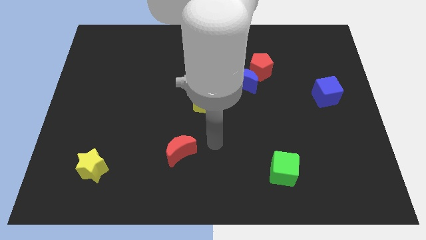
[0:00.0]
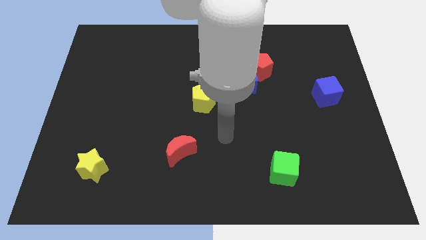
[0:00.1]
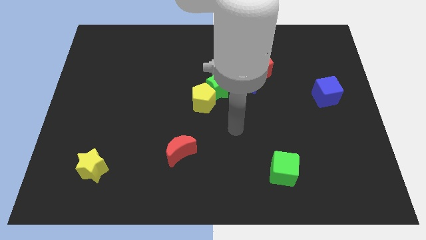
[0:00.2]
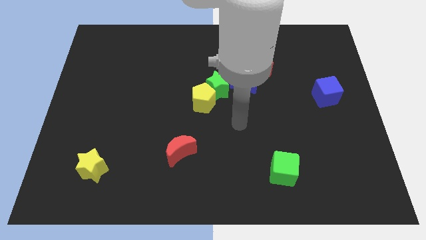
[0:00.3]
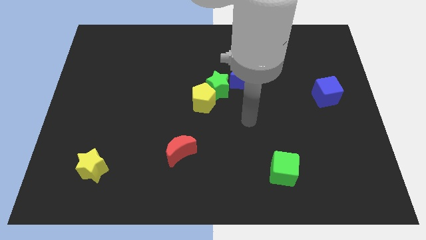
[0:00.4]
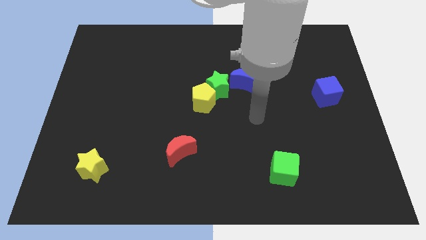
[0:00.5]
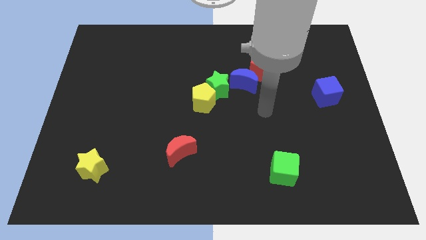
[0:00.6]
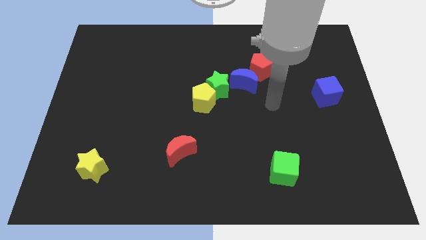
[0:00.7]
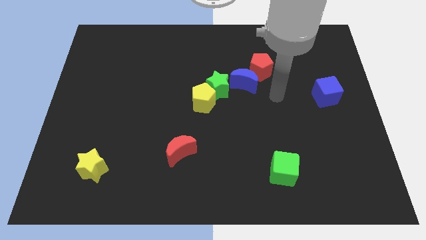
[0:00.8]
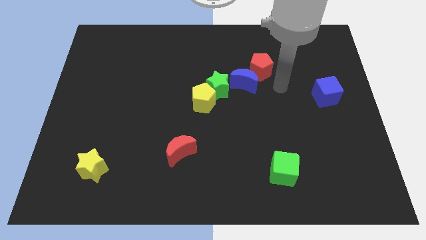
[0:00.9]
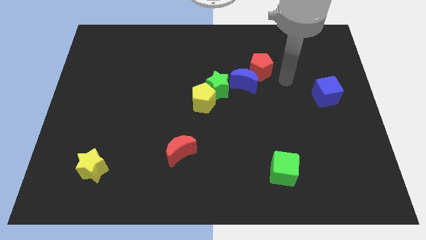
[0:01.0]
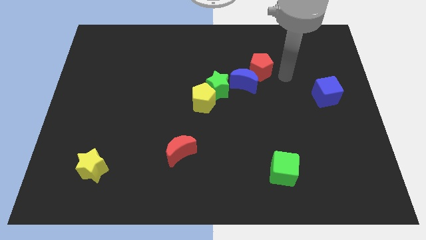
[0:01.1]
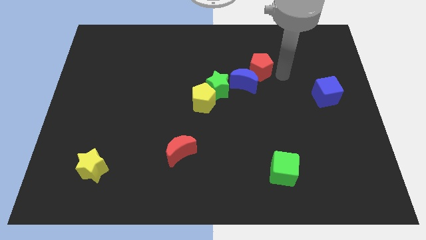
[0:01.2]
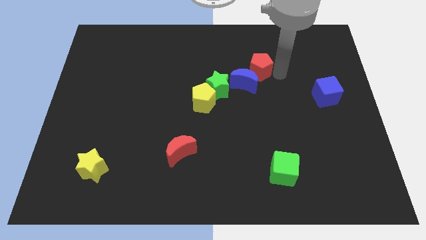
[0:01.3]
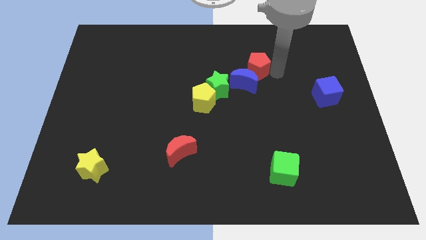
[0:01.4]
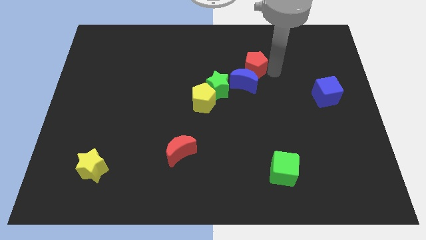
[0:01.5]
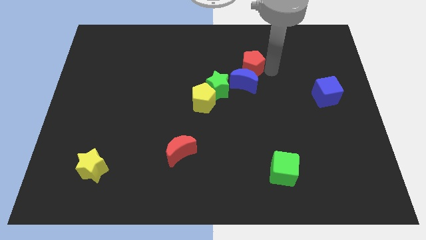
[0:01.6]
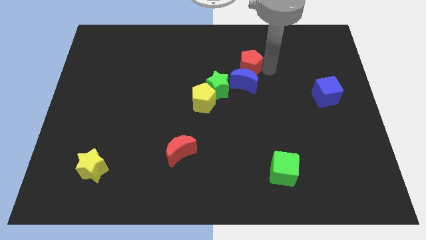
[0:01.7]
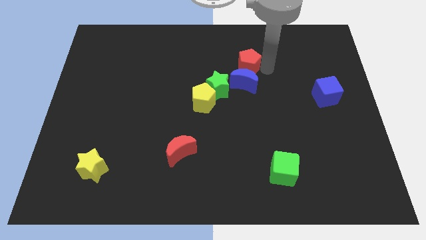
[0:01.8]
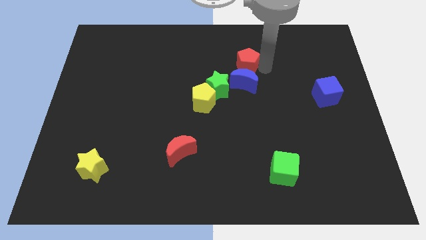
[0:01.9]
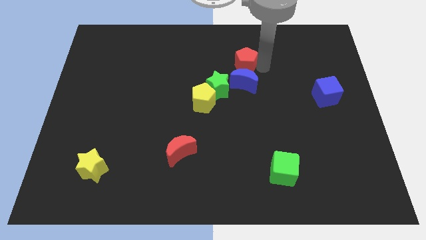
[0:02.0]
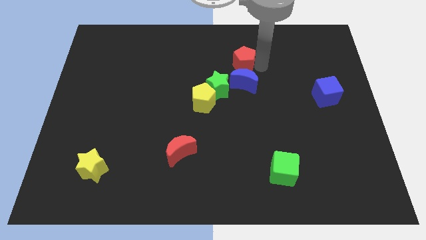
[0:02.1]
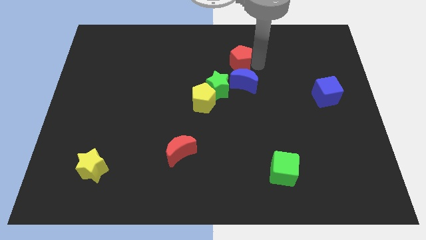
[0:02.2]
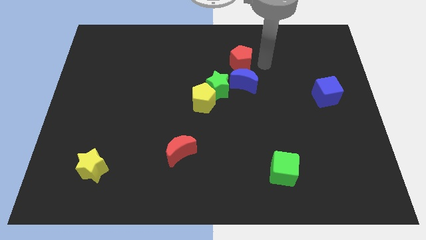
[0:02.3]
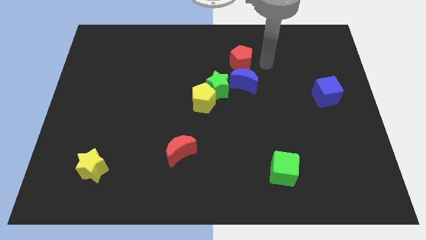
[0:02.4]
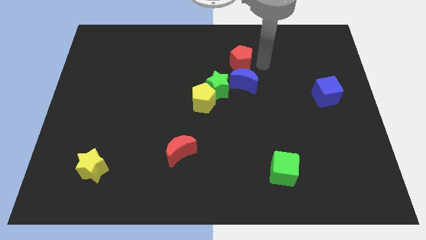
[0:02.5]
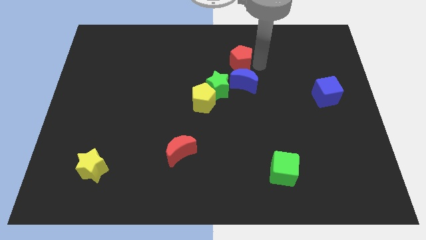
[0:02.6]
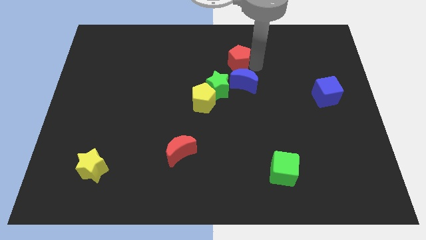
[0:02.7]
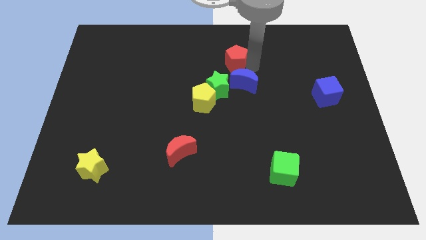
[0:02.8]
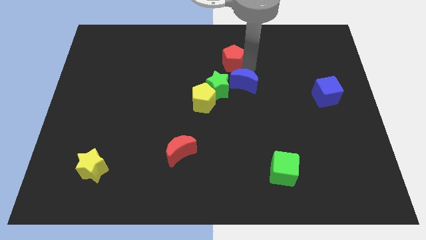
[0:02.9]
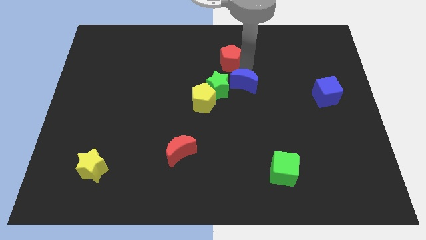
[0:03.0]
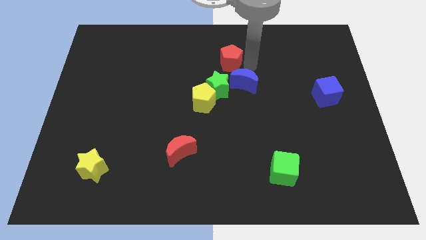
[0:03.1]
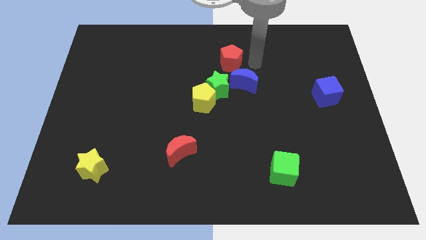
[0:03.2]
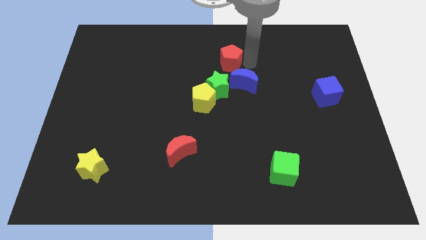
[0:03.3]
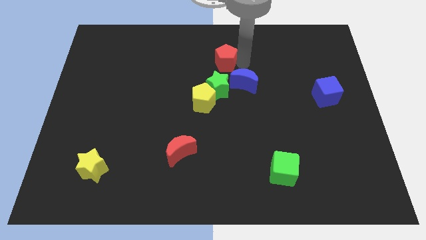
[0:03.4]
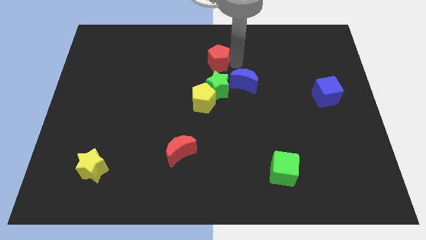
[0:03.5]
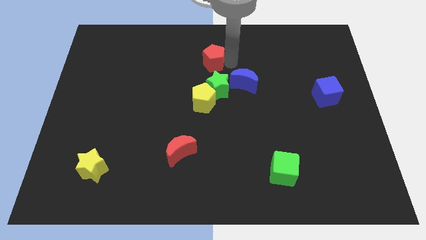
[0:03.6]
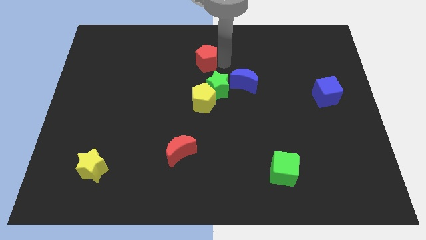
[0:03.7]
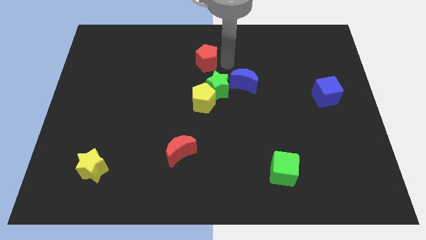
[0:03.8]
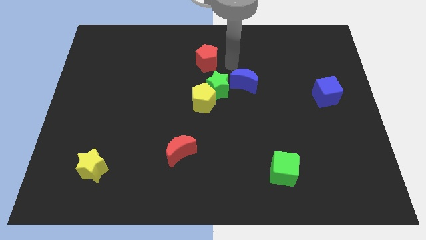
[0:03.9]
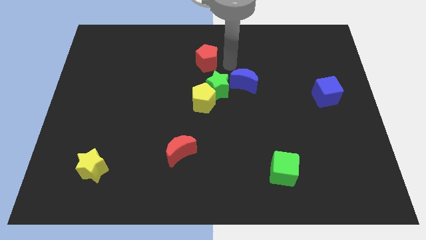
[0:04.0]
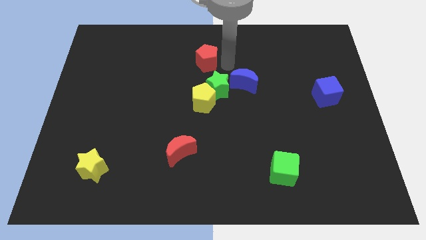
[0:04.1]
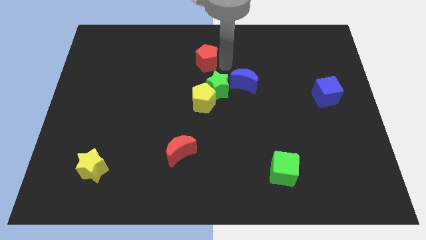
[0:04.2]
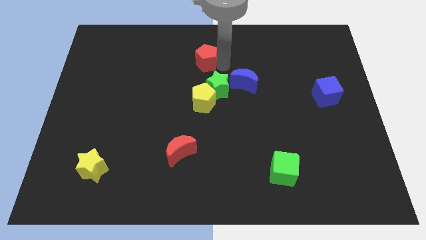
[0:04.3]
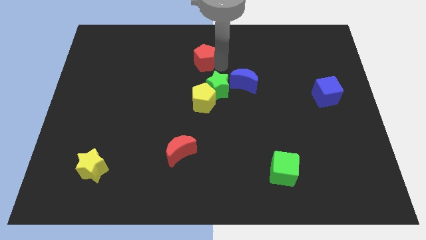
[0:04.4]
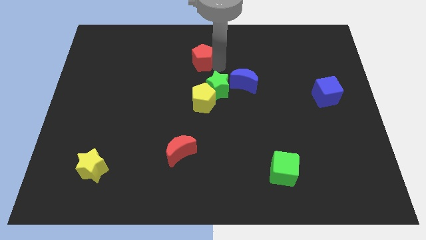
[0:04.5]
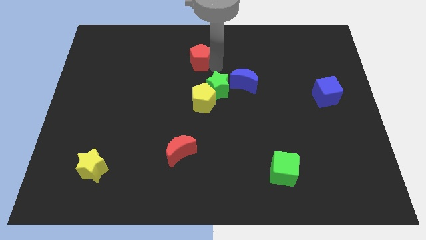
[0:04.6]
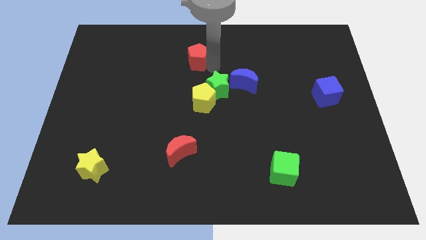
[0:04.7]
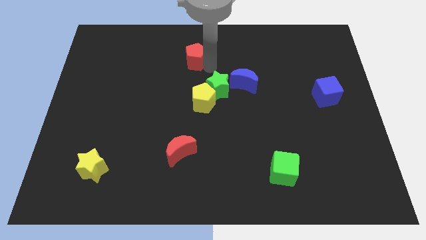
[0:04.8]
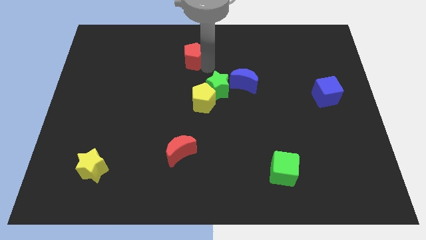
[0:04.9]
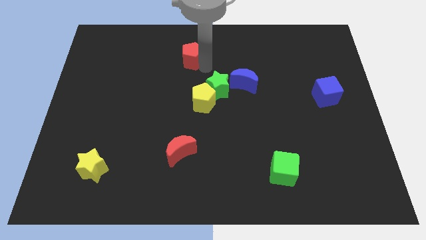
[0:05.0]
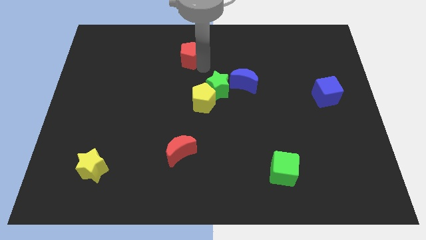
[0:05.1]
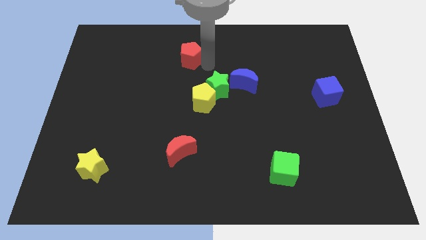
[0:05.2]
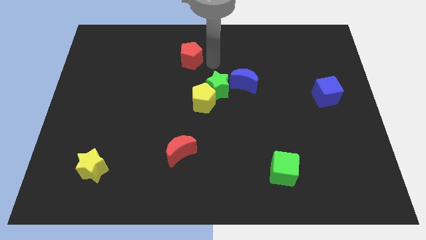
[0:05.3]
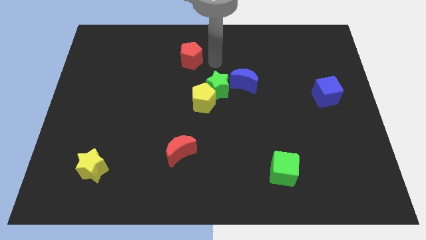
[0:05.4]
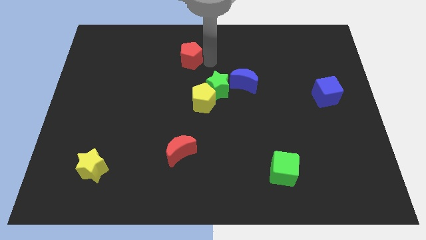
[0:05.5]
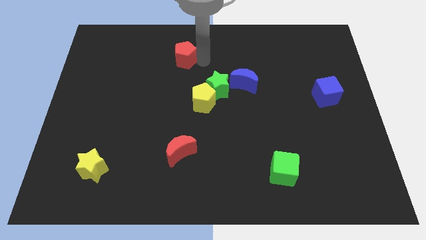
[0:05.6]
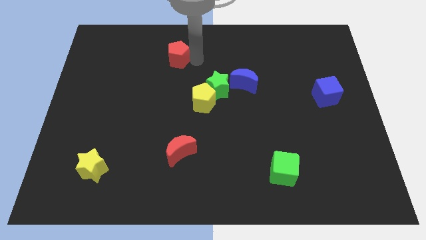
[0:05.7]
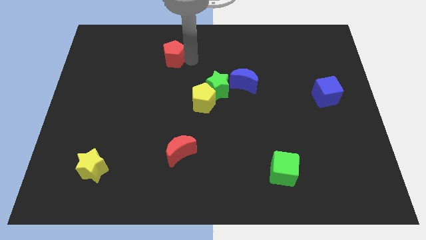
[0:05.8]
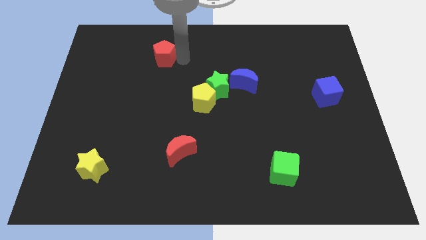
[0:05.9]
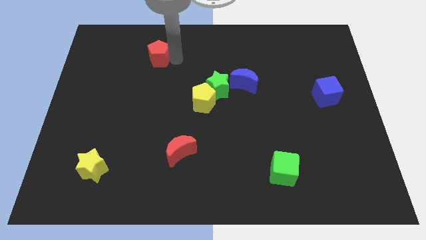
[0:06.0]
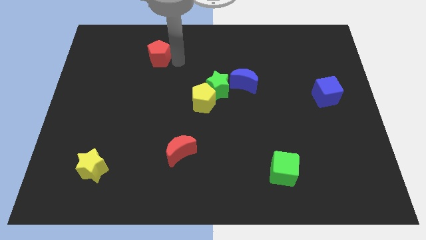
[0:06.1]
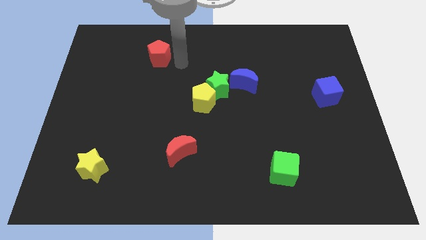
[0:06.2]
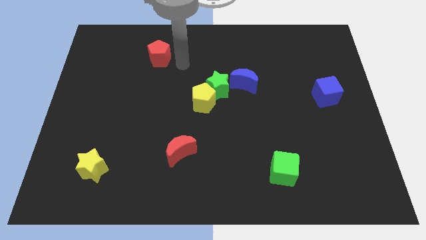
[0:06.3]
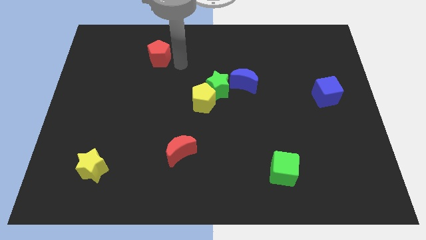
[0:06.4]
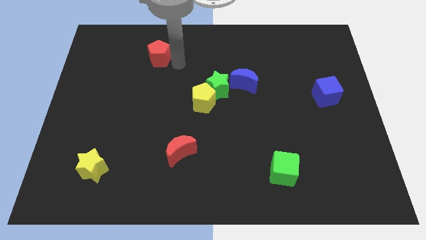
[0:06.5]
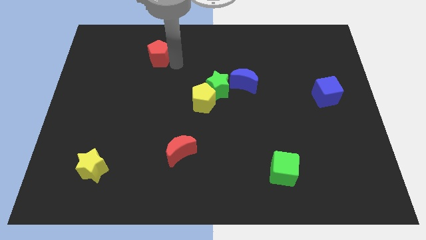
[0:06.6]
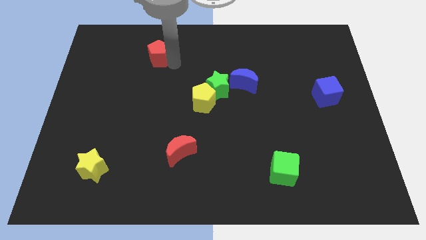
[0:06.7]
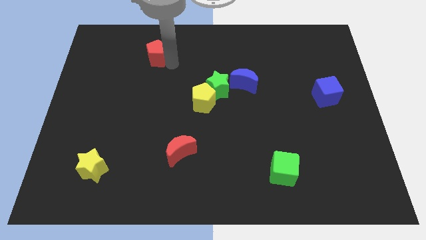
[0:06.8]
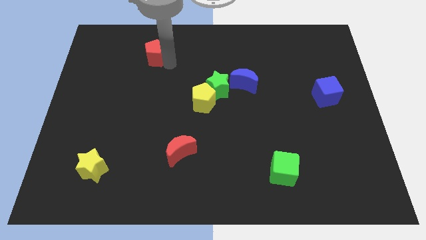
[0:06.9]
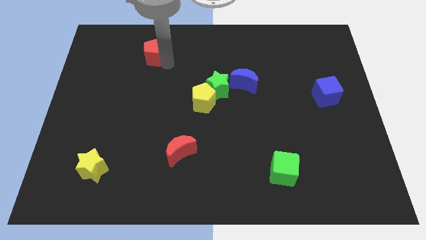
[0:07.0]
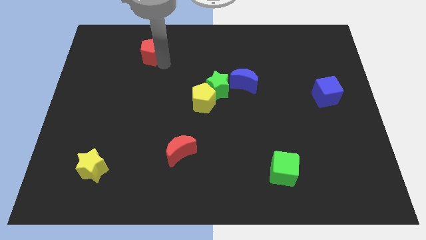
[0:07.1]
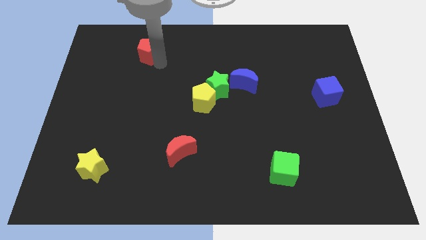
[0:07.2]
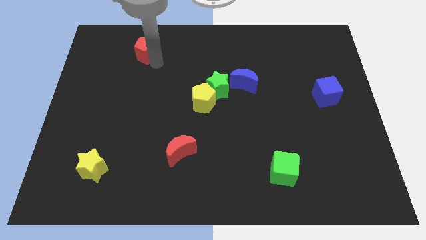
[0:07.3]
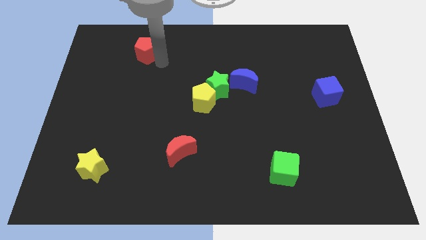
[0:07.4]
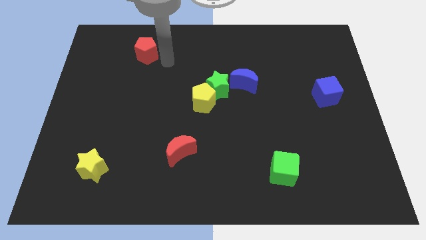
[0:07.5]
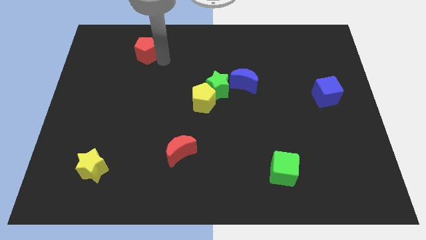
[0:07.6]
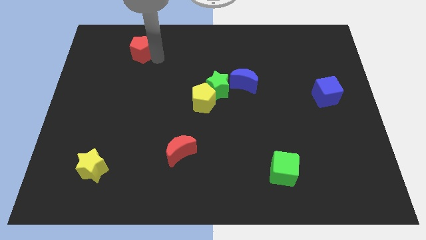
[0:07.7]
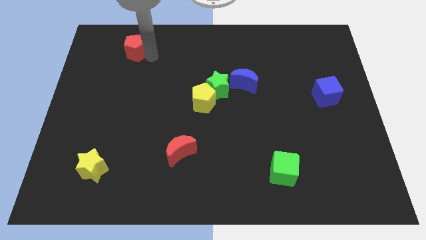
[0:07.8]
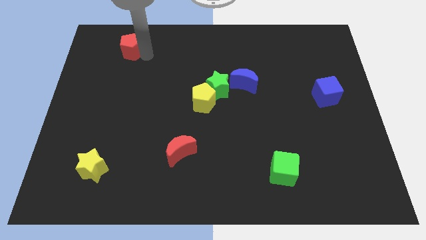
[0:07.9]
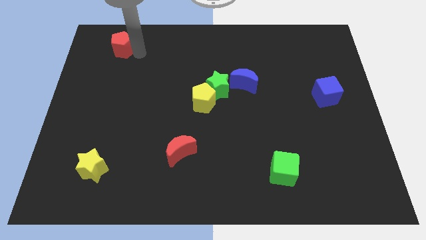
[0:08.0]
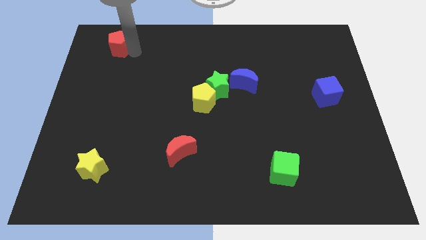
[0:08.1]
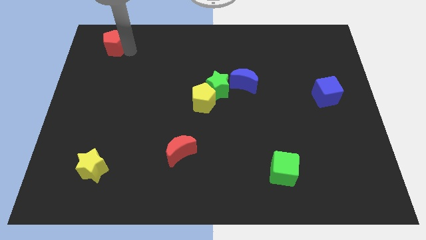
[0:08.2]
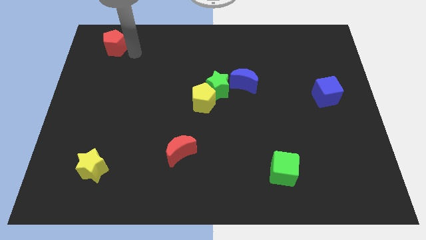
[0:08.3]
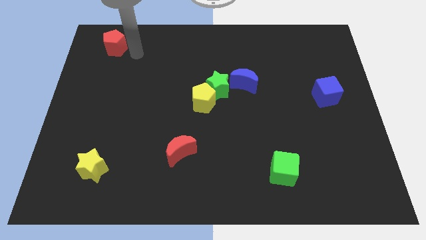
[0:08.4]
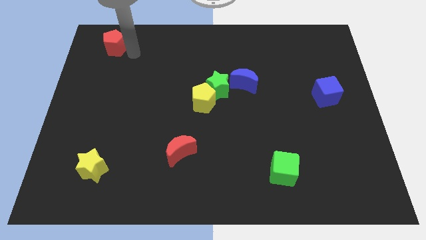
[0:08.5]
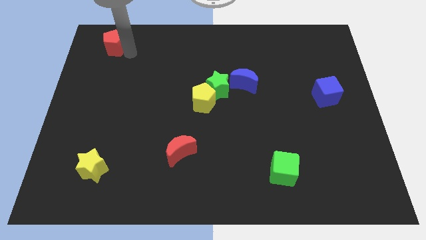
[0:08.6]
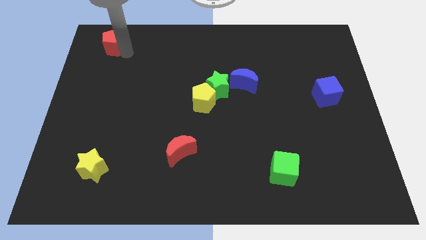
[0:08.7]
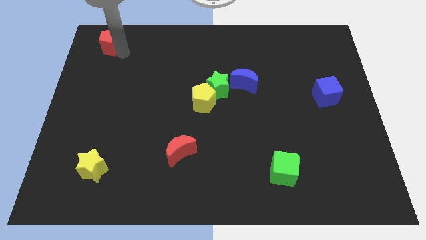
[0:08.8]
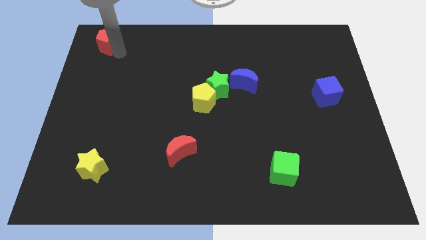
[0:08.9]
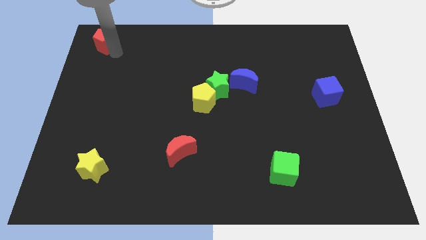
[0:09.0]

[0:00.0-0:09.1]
move the red pentagon to the top left
